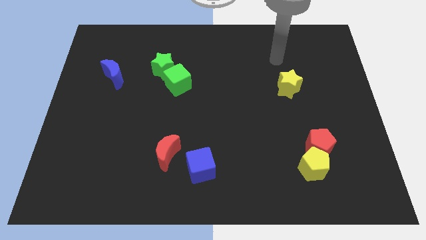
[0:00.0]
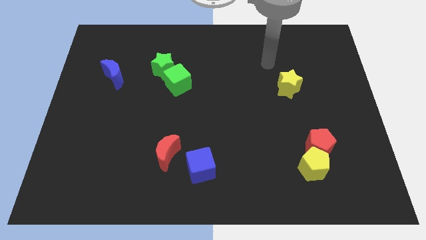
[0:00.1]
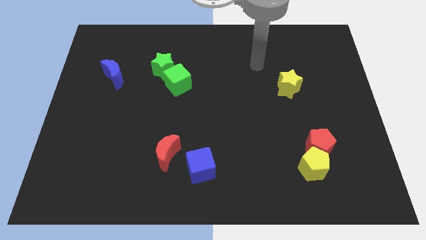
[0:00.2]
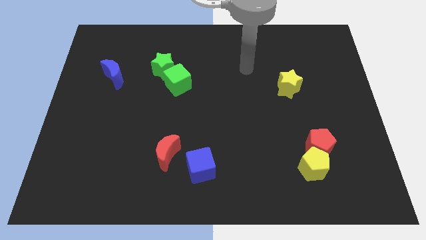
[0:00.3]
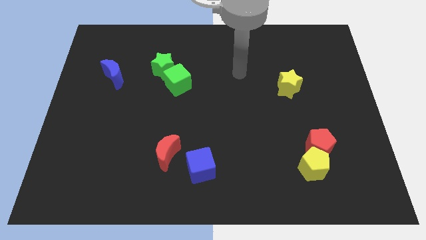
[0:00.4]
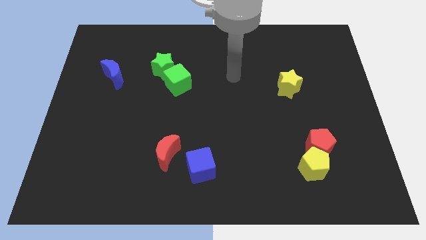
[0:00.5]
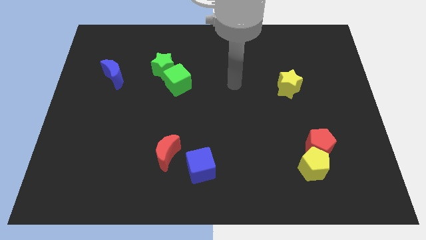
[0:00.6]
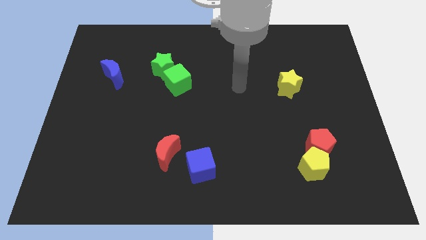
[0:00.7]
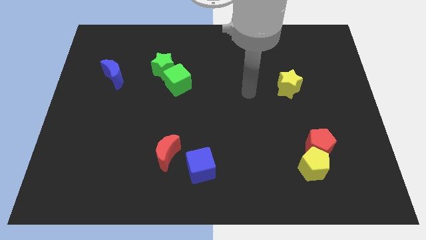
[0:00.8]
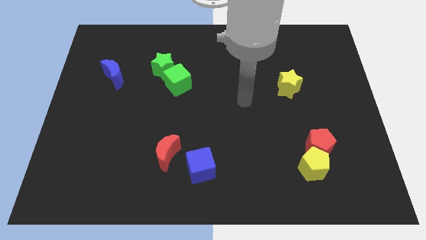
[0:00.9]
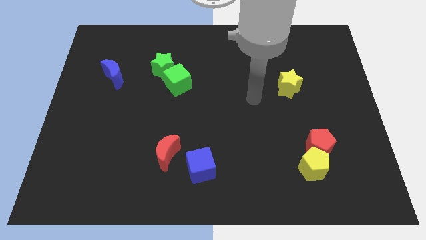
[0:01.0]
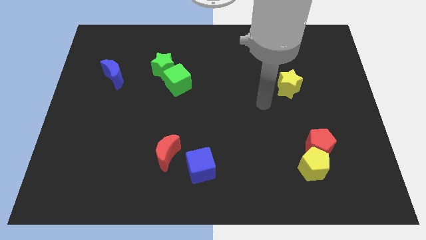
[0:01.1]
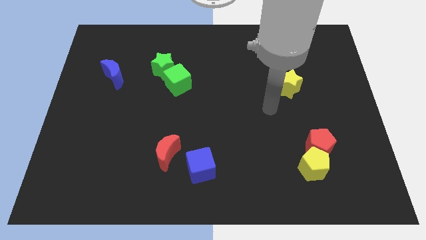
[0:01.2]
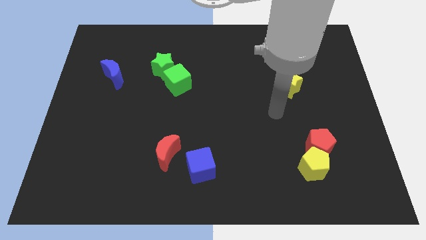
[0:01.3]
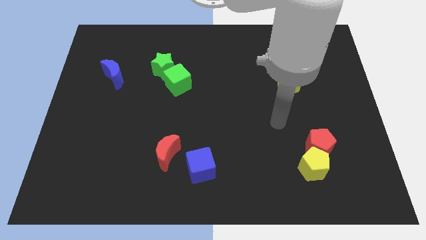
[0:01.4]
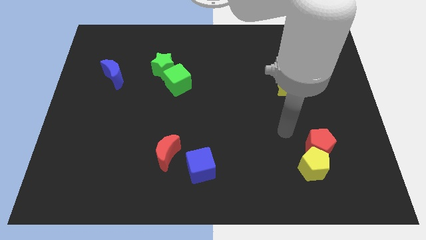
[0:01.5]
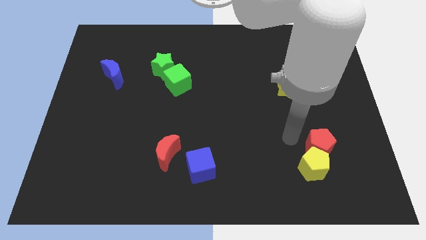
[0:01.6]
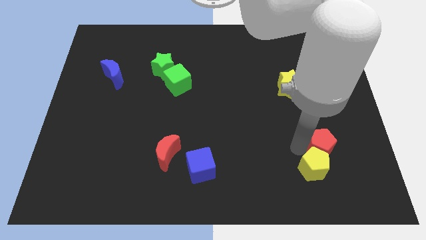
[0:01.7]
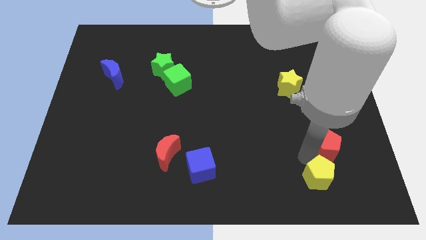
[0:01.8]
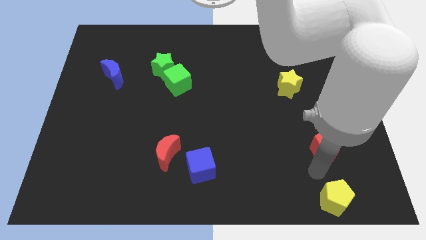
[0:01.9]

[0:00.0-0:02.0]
separate the red pentagon from the yellow pentagon

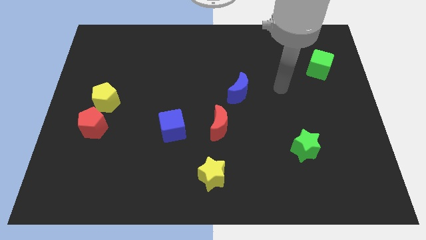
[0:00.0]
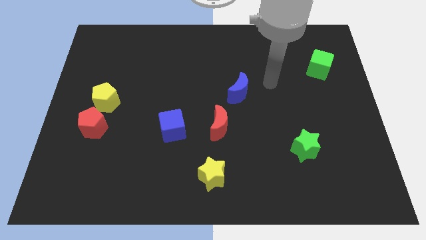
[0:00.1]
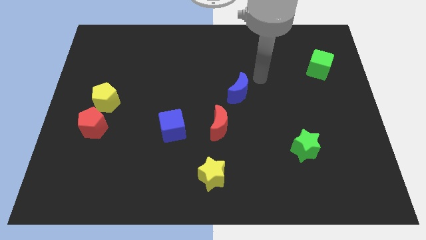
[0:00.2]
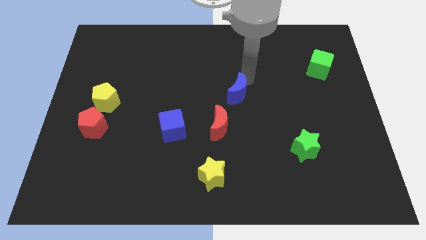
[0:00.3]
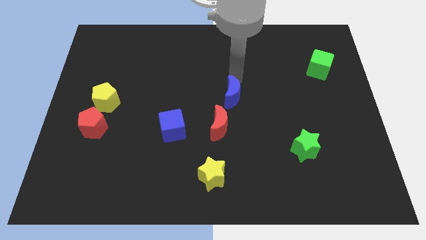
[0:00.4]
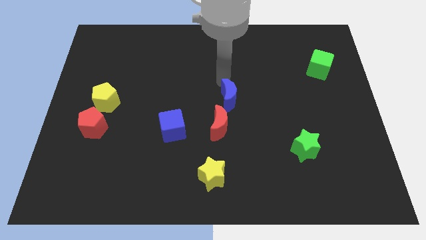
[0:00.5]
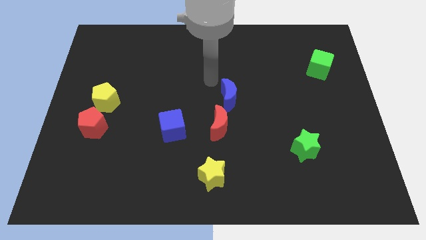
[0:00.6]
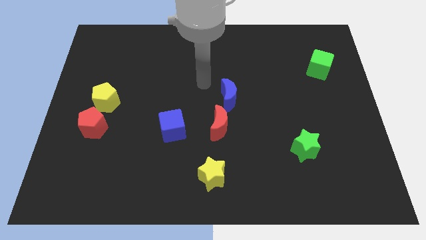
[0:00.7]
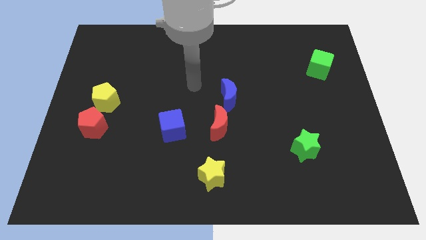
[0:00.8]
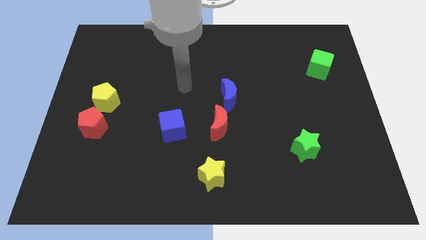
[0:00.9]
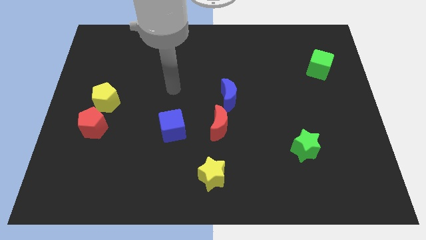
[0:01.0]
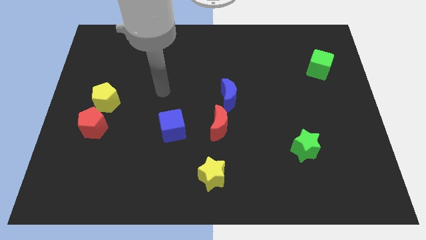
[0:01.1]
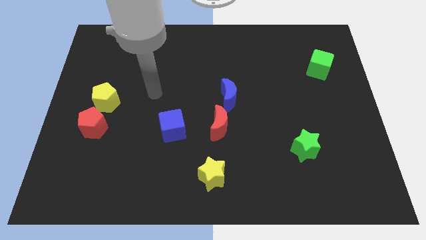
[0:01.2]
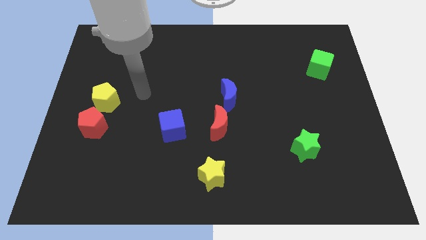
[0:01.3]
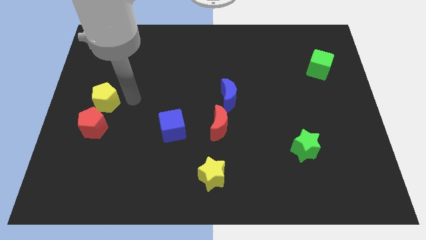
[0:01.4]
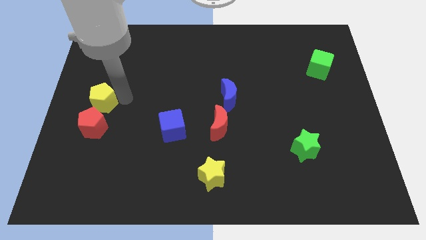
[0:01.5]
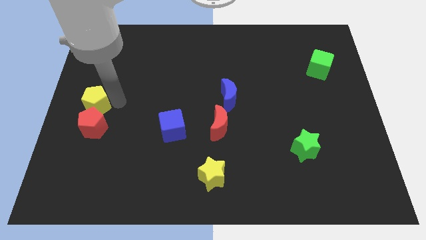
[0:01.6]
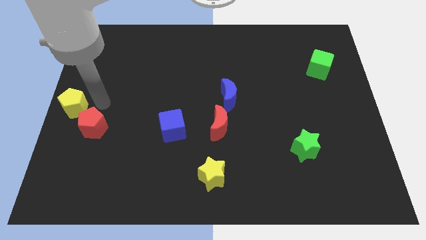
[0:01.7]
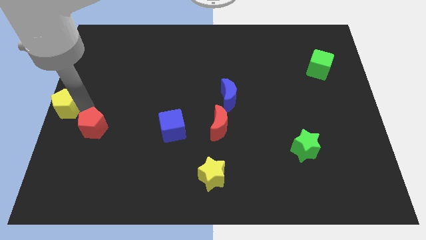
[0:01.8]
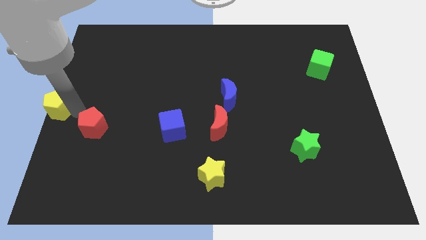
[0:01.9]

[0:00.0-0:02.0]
move the red pentagon away from the yellow pentagon

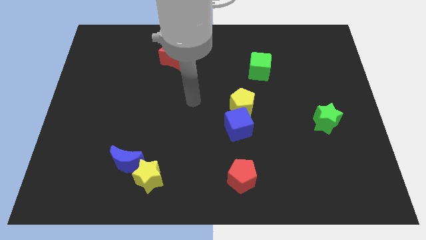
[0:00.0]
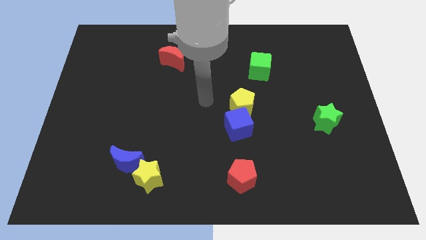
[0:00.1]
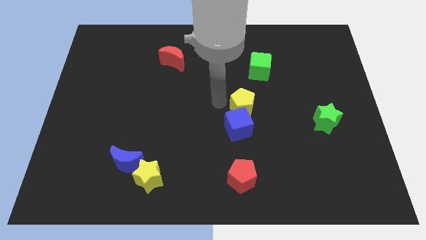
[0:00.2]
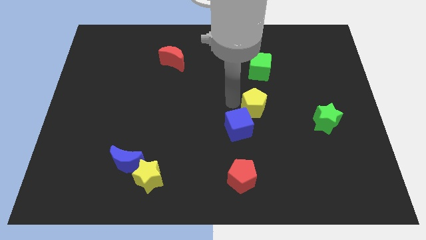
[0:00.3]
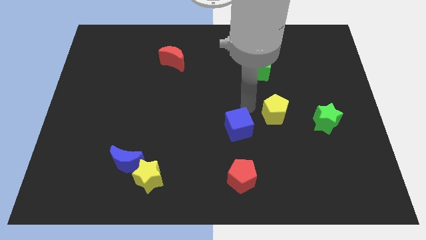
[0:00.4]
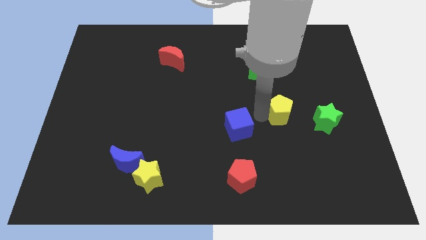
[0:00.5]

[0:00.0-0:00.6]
move the blue cube away from the yellow pentagon

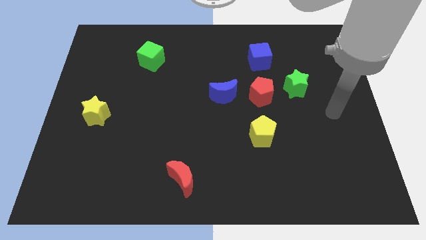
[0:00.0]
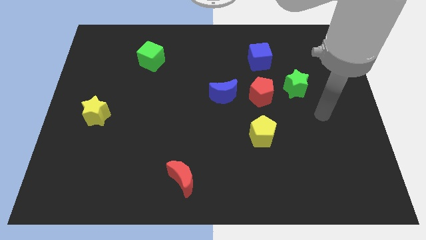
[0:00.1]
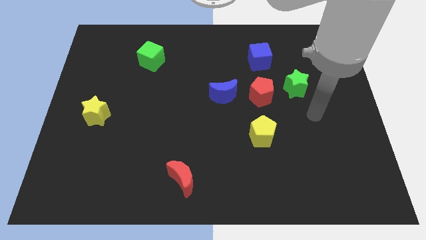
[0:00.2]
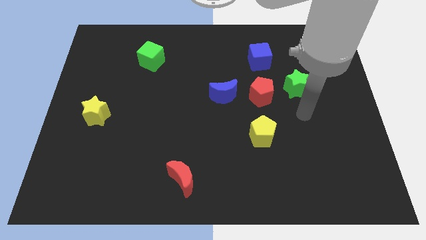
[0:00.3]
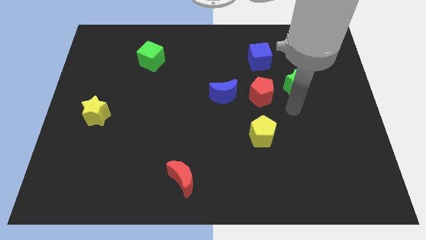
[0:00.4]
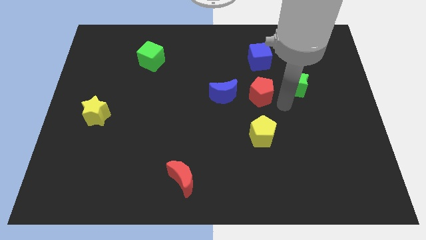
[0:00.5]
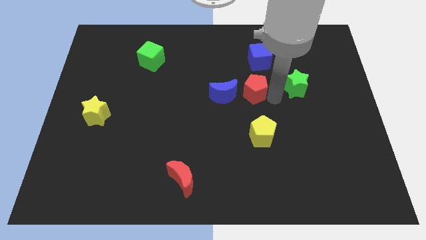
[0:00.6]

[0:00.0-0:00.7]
move the green star away from the red pentagon

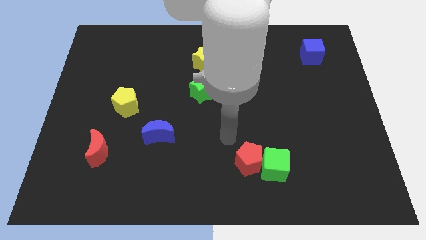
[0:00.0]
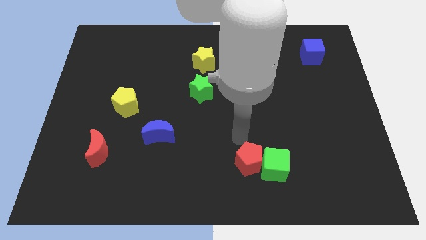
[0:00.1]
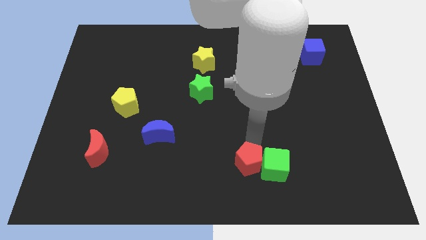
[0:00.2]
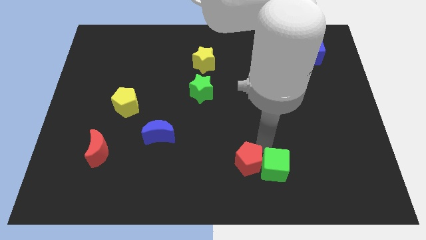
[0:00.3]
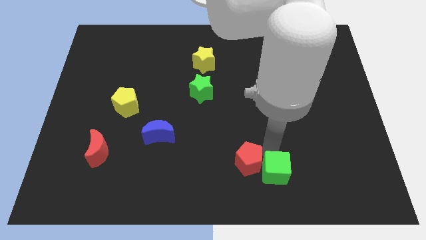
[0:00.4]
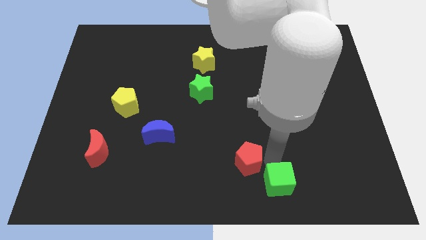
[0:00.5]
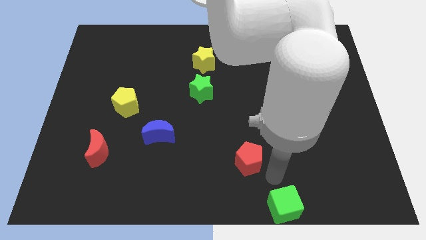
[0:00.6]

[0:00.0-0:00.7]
move the red pentagon away from the green cube

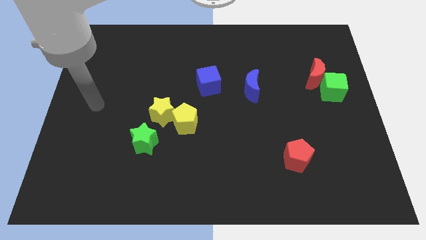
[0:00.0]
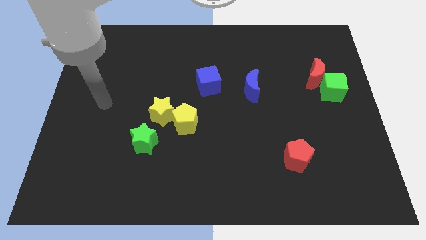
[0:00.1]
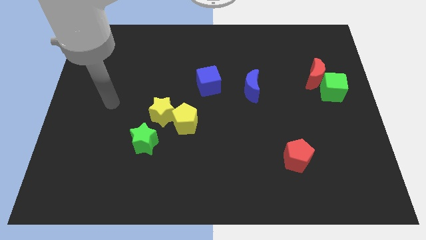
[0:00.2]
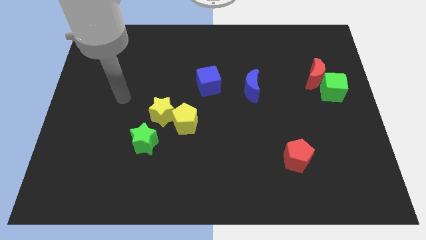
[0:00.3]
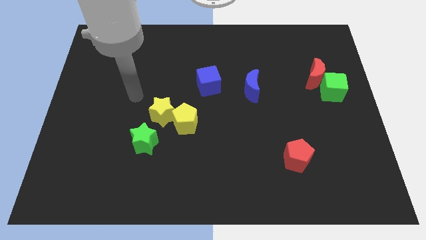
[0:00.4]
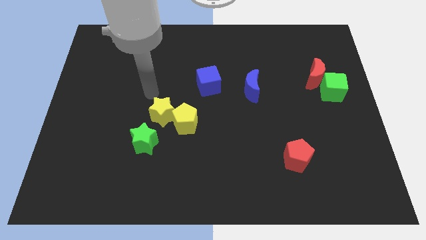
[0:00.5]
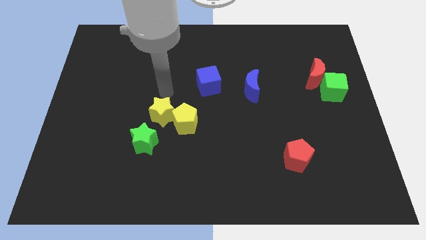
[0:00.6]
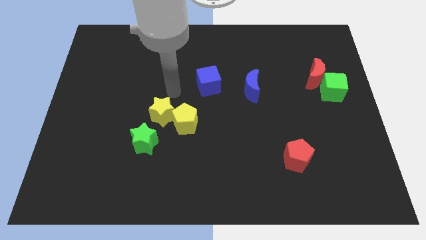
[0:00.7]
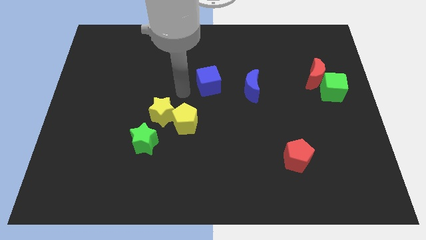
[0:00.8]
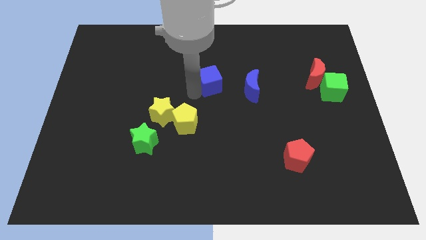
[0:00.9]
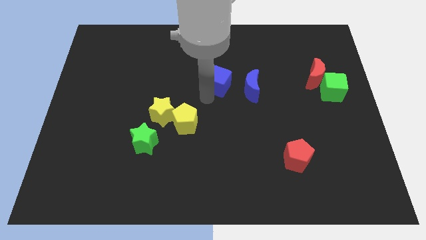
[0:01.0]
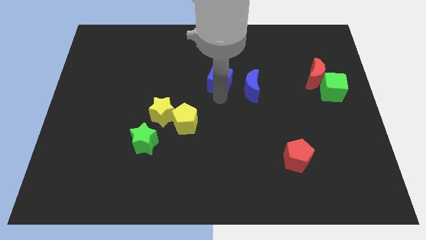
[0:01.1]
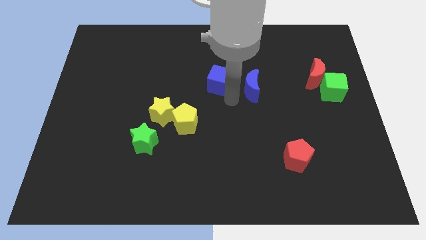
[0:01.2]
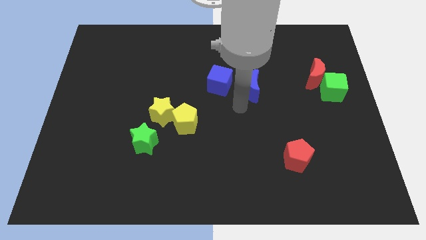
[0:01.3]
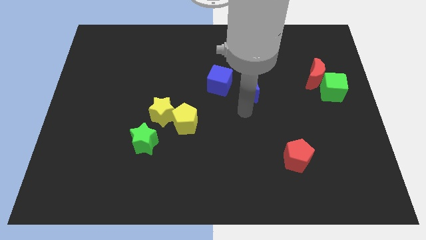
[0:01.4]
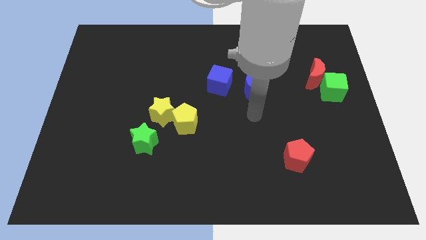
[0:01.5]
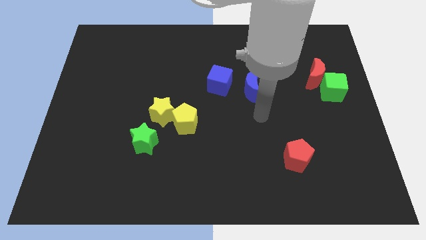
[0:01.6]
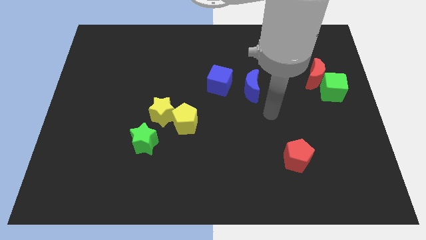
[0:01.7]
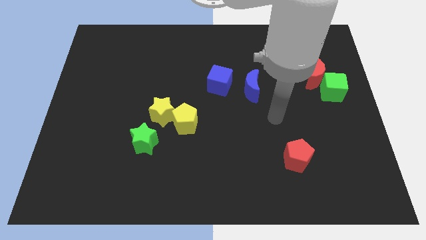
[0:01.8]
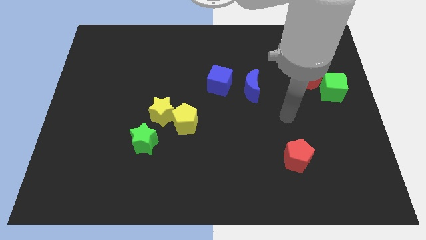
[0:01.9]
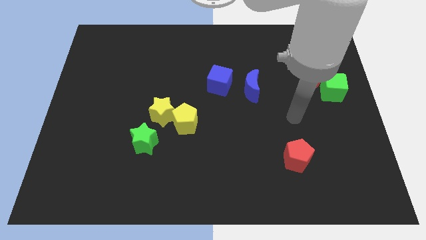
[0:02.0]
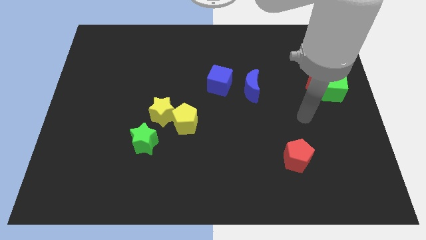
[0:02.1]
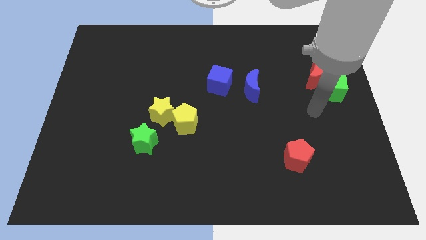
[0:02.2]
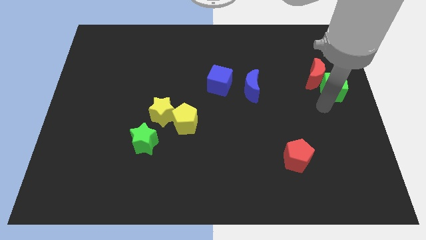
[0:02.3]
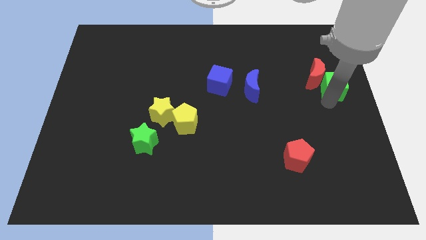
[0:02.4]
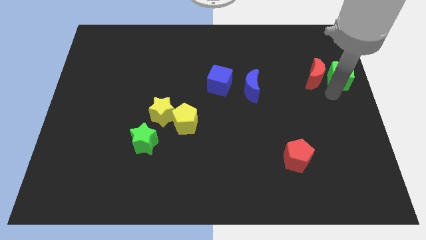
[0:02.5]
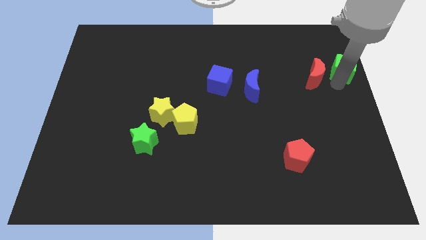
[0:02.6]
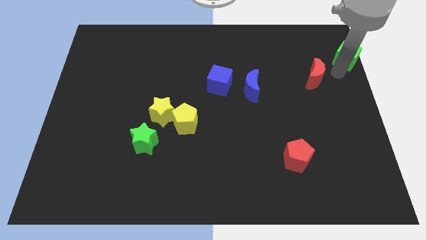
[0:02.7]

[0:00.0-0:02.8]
separate the red moon from the green cube

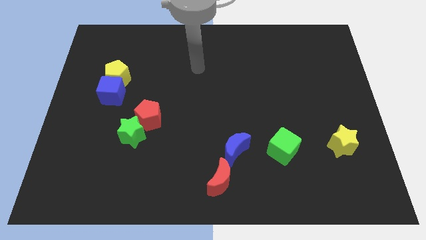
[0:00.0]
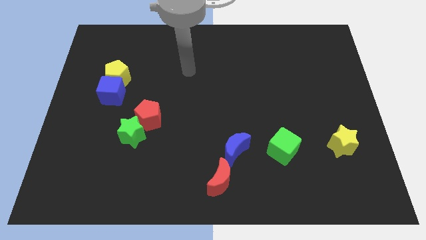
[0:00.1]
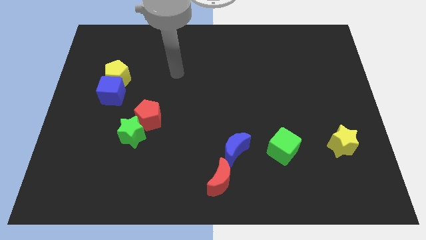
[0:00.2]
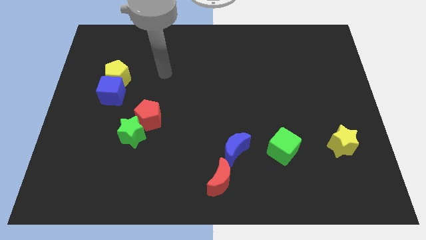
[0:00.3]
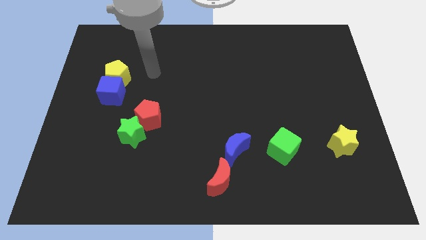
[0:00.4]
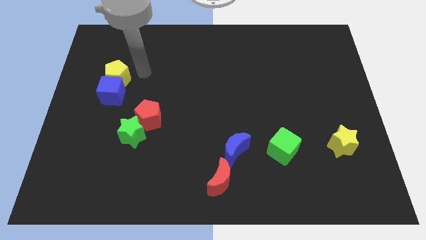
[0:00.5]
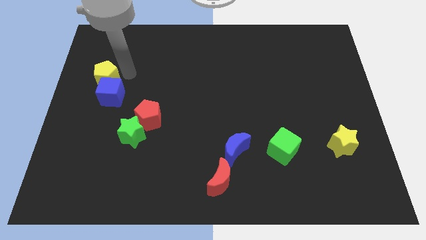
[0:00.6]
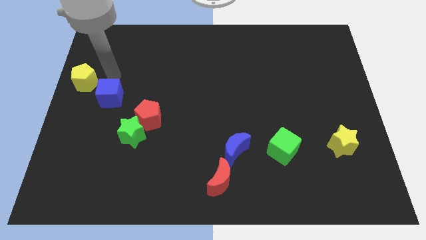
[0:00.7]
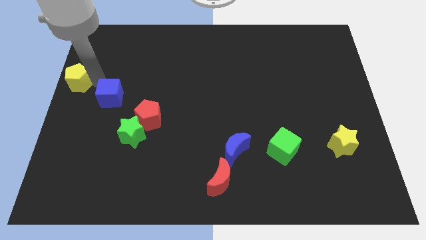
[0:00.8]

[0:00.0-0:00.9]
separate the blue cube from the yellow pentagon
